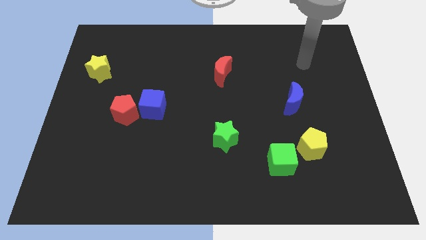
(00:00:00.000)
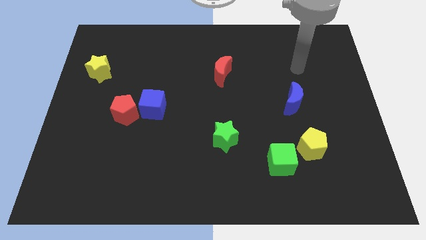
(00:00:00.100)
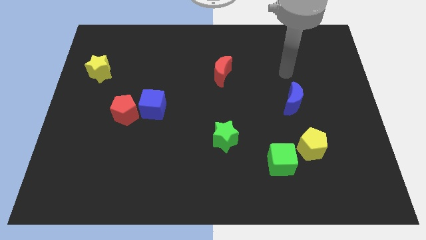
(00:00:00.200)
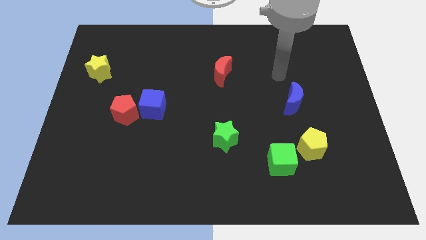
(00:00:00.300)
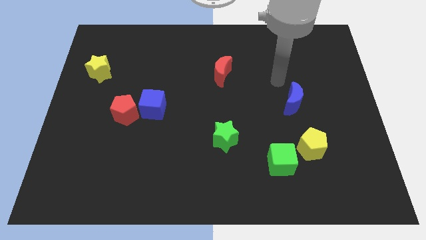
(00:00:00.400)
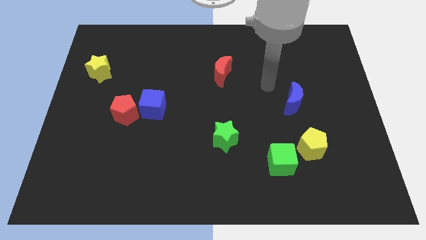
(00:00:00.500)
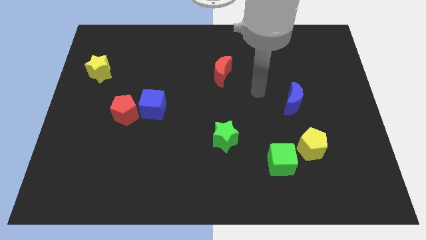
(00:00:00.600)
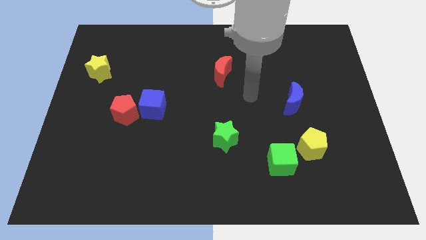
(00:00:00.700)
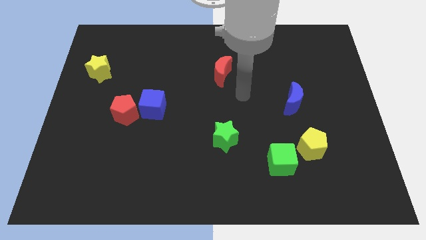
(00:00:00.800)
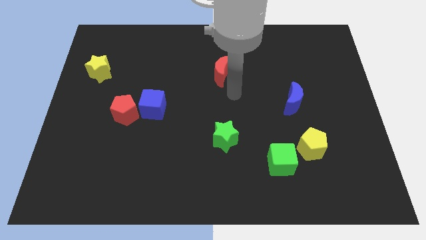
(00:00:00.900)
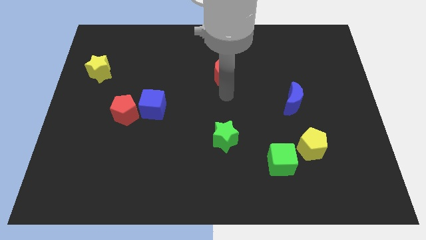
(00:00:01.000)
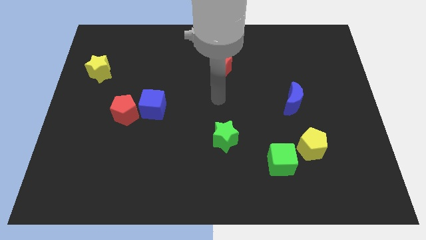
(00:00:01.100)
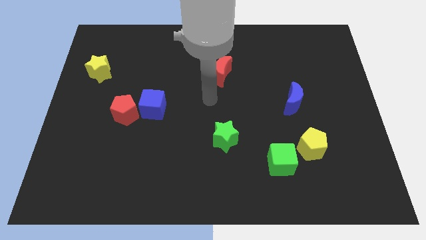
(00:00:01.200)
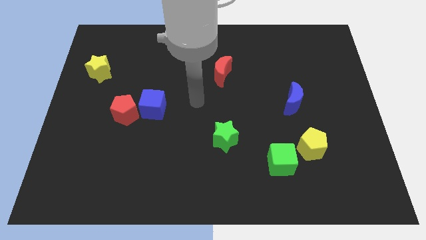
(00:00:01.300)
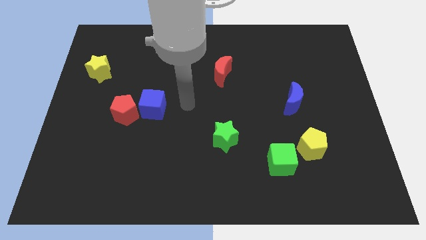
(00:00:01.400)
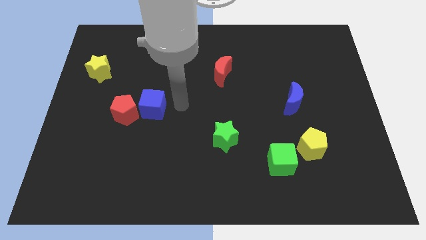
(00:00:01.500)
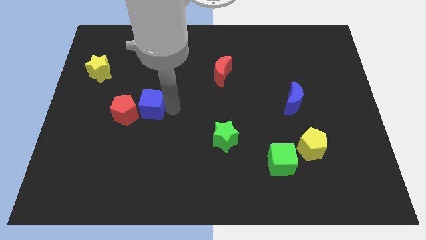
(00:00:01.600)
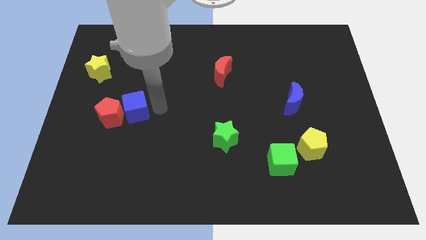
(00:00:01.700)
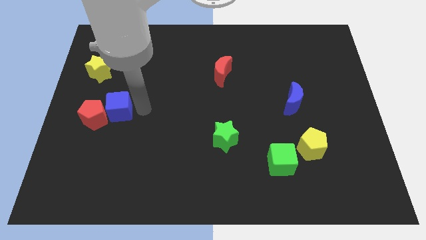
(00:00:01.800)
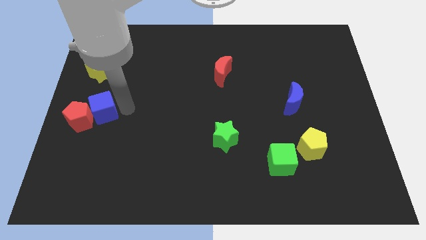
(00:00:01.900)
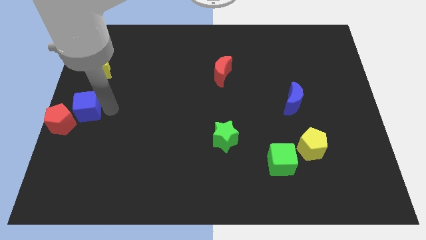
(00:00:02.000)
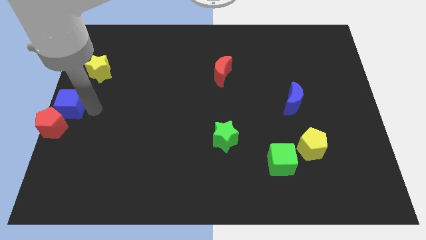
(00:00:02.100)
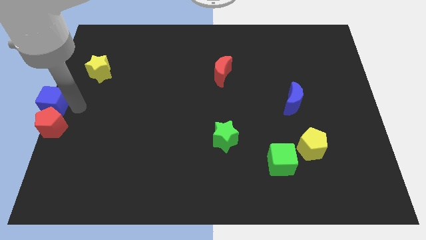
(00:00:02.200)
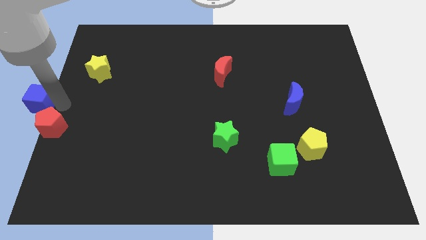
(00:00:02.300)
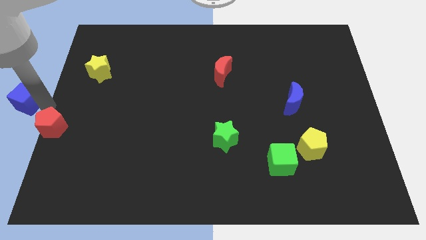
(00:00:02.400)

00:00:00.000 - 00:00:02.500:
move the red pentagon away from the blue cube

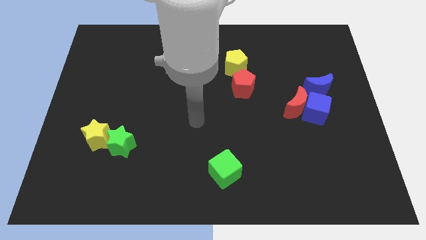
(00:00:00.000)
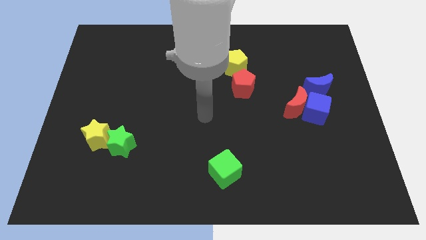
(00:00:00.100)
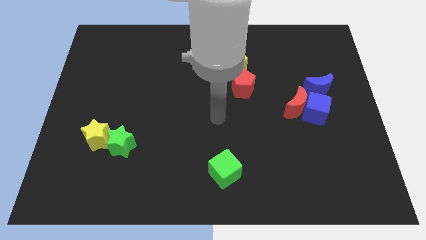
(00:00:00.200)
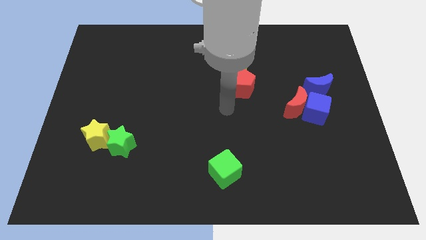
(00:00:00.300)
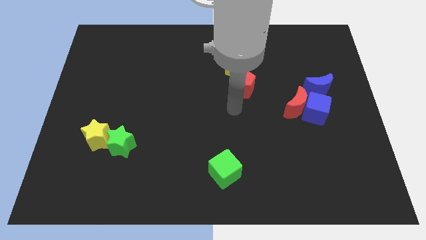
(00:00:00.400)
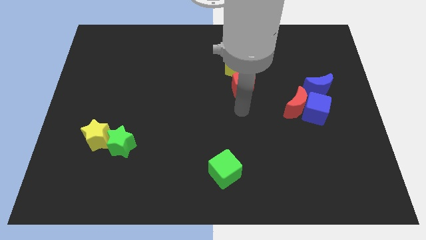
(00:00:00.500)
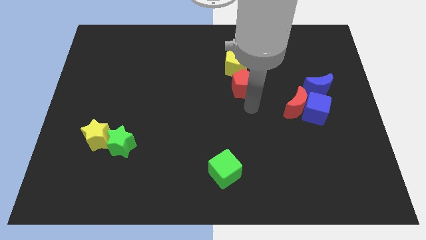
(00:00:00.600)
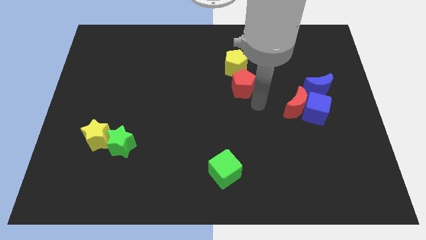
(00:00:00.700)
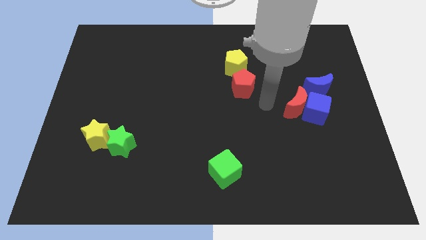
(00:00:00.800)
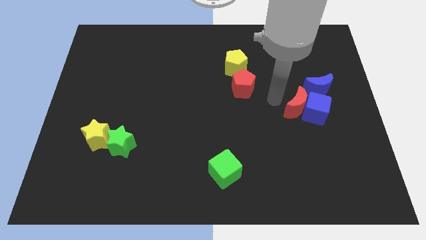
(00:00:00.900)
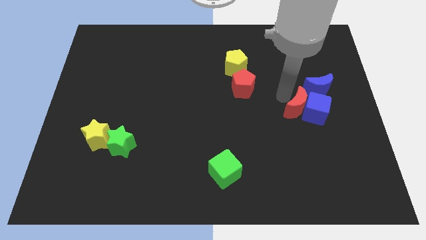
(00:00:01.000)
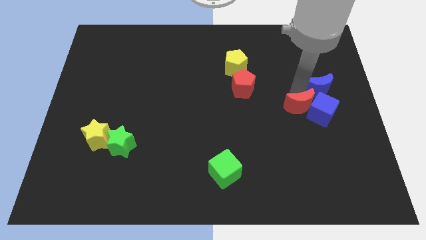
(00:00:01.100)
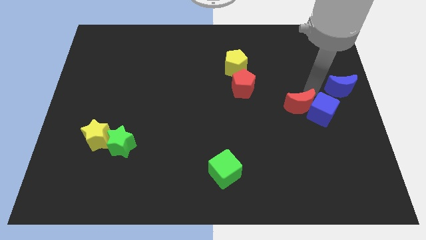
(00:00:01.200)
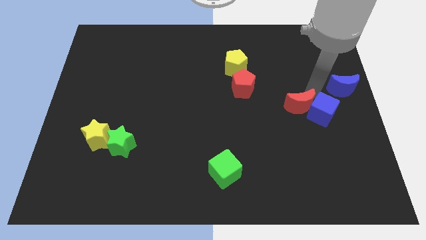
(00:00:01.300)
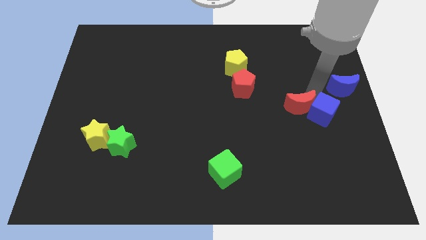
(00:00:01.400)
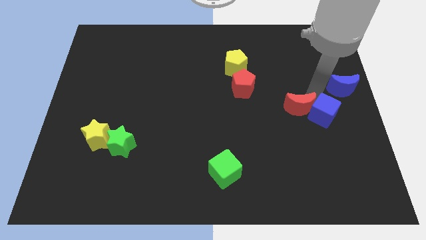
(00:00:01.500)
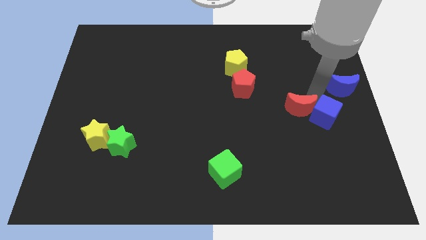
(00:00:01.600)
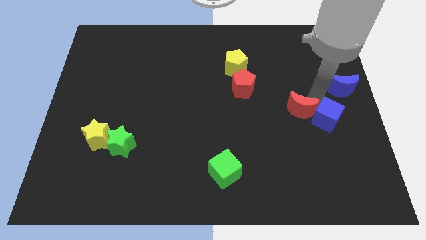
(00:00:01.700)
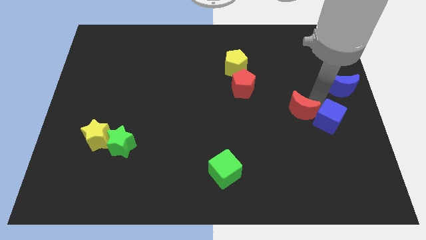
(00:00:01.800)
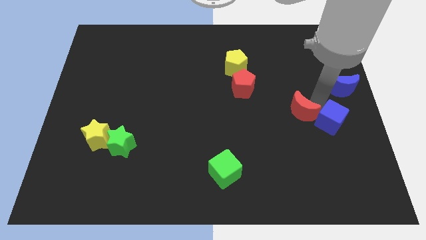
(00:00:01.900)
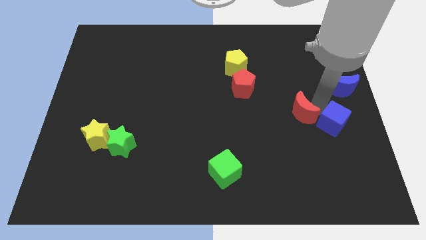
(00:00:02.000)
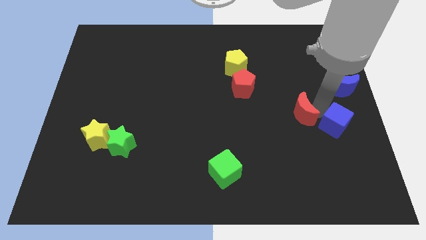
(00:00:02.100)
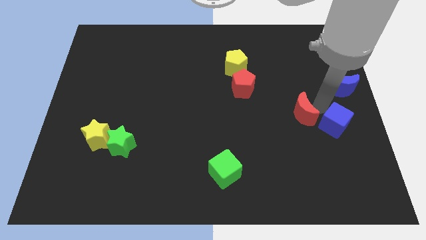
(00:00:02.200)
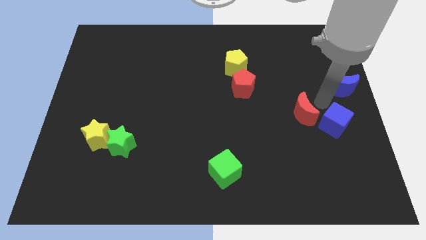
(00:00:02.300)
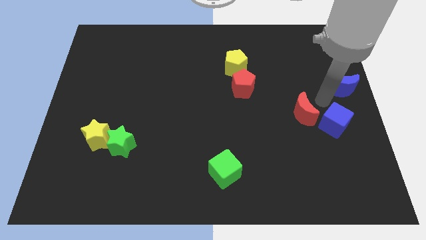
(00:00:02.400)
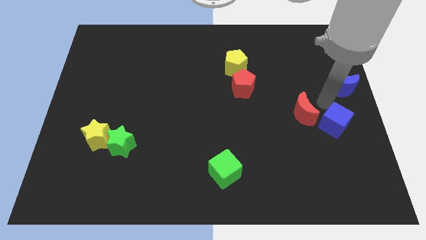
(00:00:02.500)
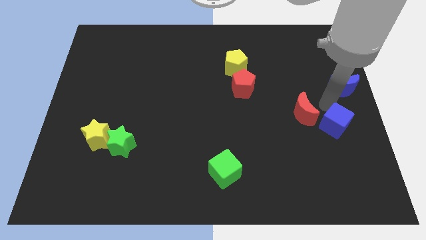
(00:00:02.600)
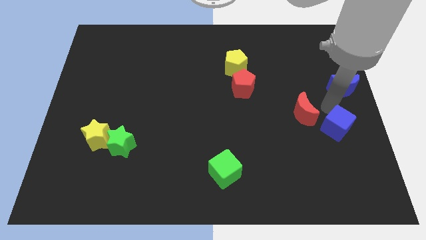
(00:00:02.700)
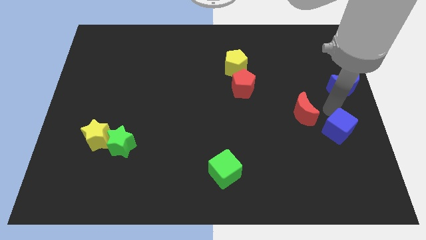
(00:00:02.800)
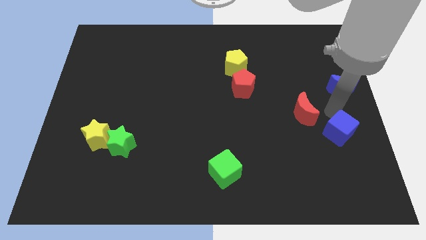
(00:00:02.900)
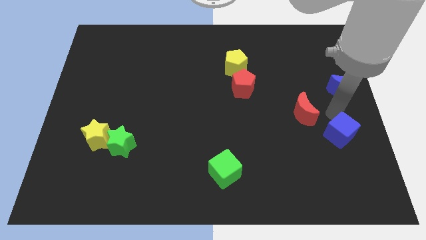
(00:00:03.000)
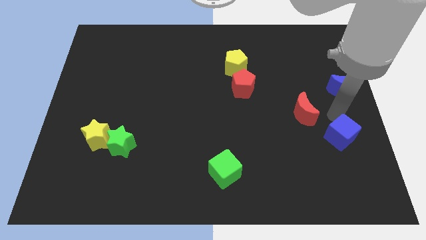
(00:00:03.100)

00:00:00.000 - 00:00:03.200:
move the blue cube away from the red moon and blue moon

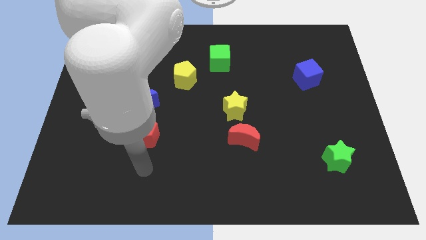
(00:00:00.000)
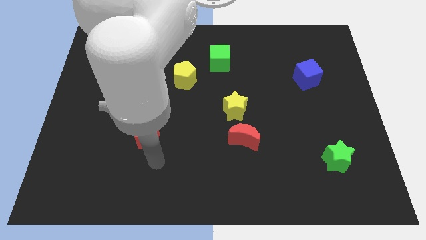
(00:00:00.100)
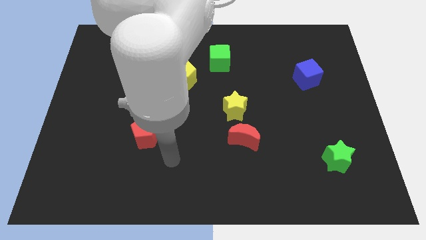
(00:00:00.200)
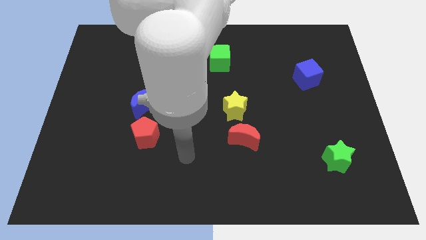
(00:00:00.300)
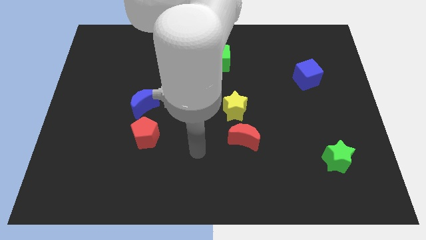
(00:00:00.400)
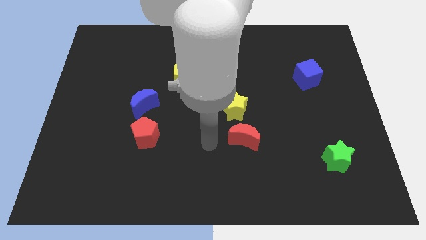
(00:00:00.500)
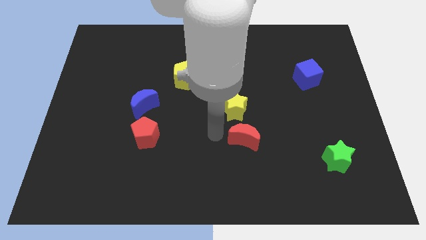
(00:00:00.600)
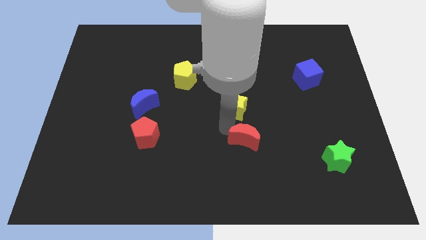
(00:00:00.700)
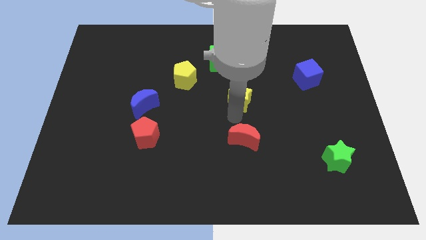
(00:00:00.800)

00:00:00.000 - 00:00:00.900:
pull the red moon apart from the yellow star

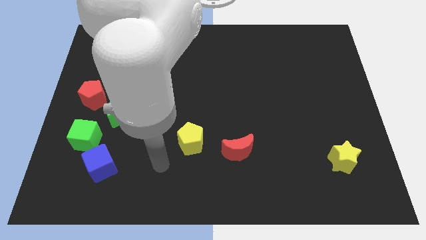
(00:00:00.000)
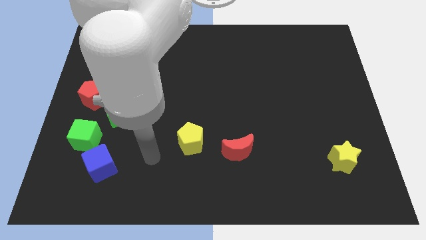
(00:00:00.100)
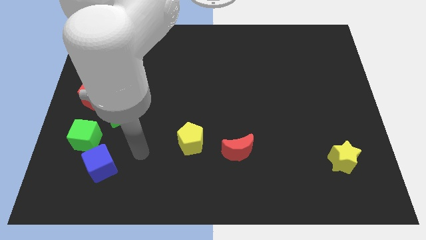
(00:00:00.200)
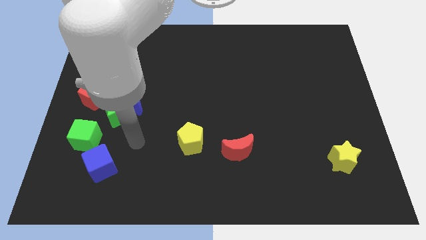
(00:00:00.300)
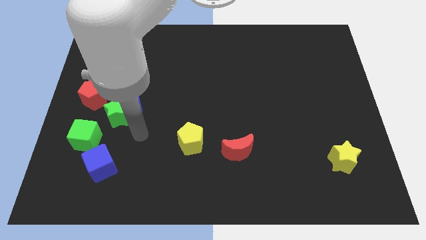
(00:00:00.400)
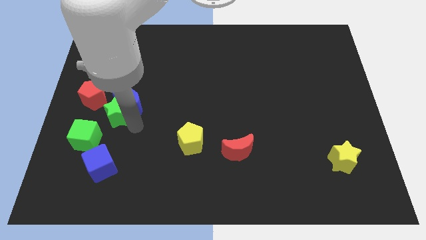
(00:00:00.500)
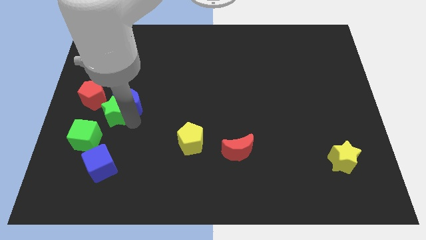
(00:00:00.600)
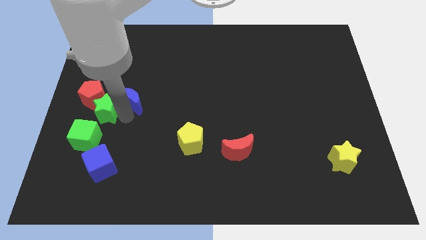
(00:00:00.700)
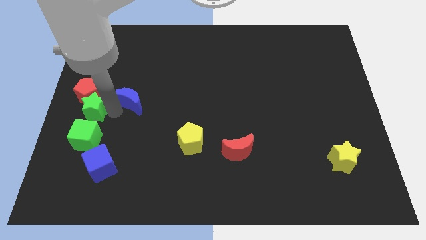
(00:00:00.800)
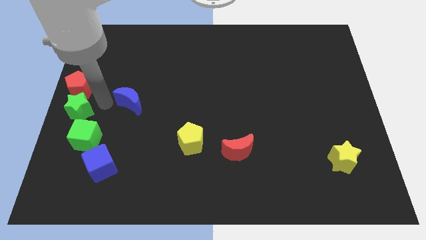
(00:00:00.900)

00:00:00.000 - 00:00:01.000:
move the blue moon away from the green star and red pentagon

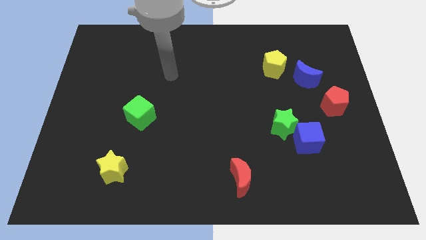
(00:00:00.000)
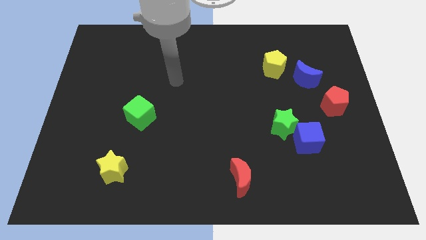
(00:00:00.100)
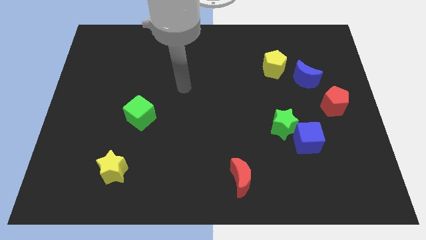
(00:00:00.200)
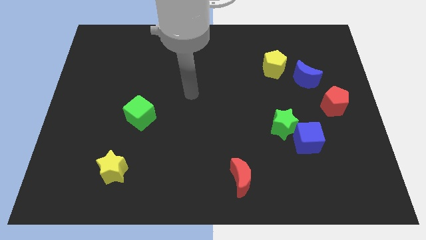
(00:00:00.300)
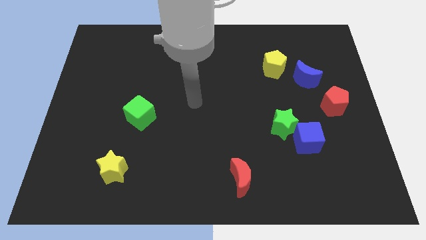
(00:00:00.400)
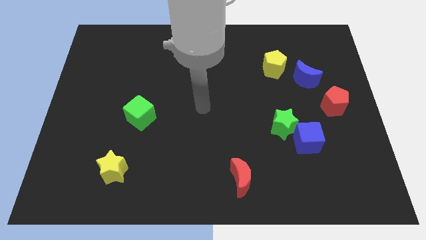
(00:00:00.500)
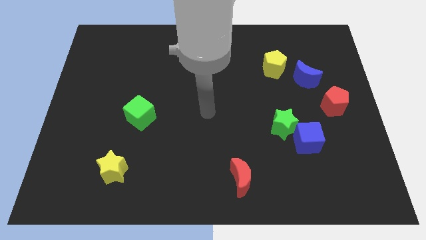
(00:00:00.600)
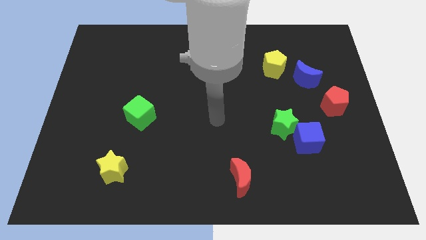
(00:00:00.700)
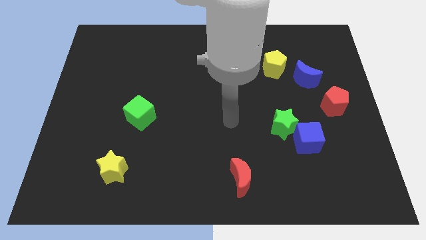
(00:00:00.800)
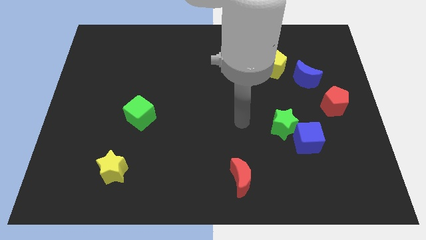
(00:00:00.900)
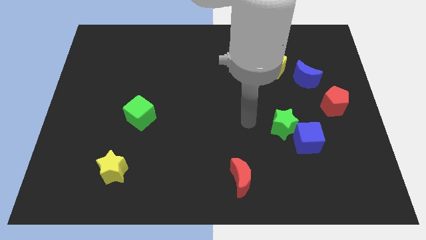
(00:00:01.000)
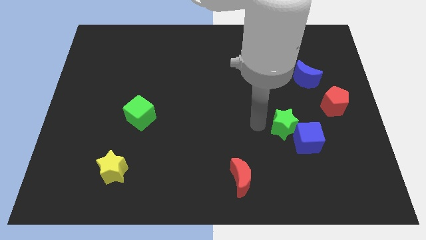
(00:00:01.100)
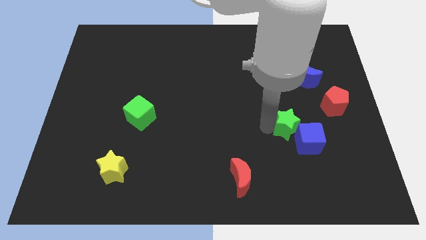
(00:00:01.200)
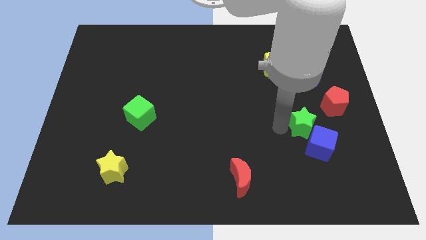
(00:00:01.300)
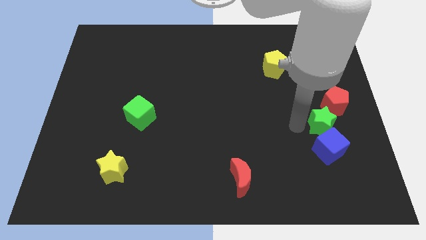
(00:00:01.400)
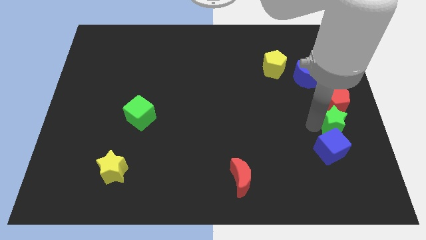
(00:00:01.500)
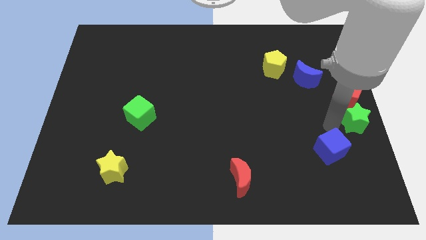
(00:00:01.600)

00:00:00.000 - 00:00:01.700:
pull the blue cube apart from the green star
